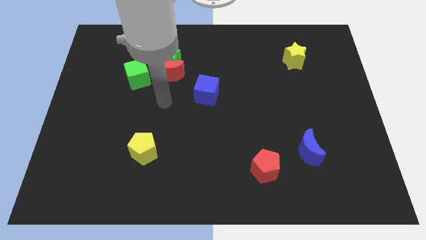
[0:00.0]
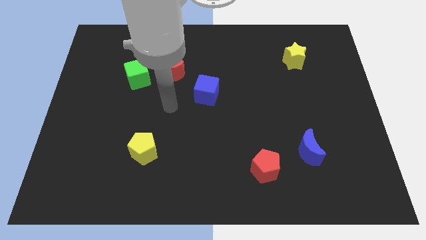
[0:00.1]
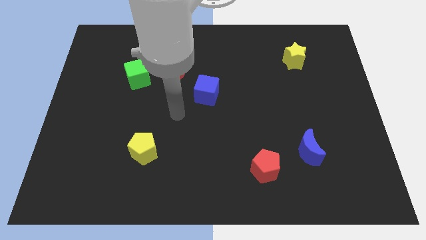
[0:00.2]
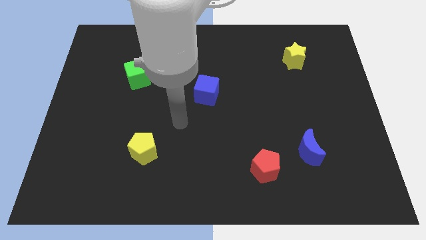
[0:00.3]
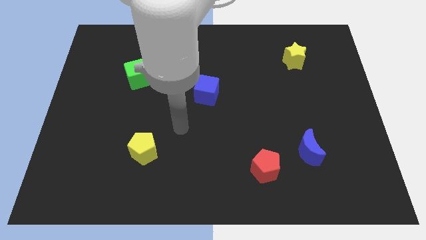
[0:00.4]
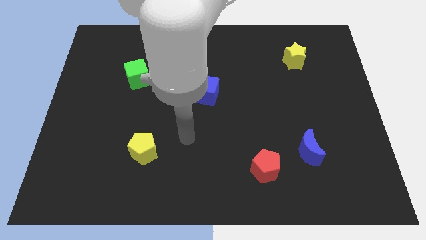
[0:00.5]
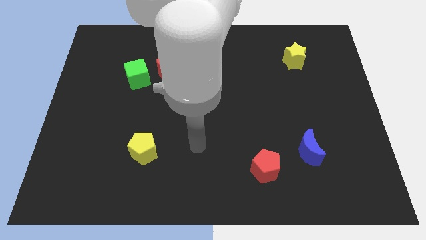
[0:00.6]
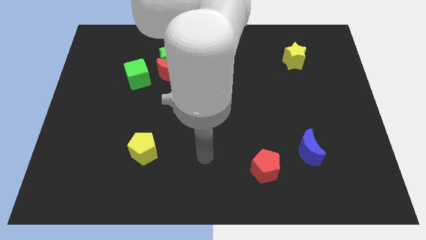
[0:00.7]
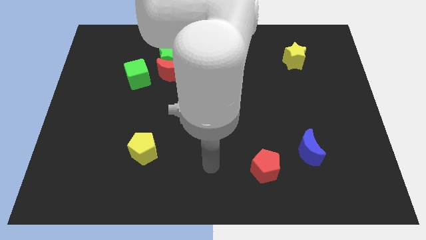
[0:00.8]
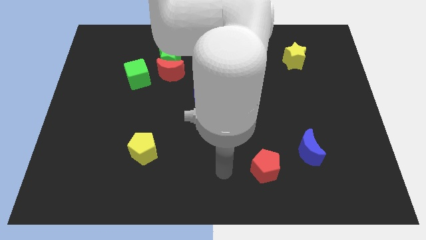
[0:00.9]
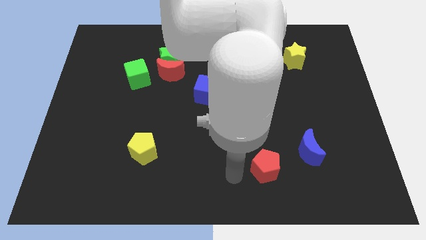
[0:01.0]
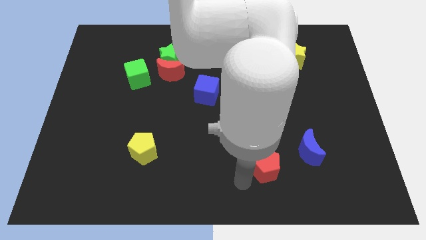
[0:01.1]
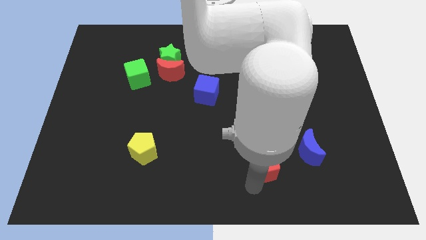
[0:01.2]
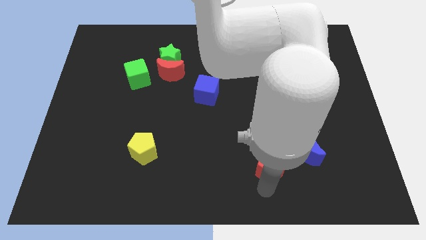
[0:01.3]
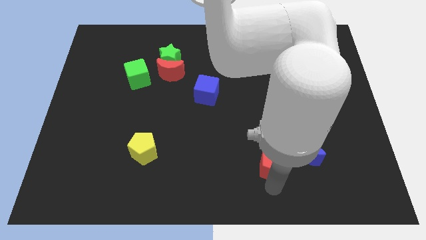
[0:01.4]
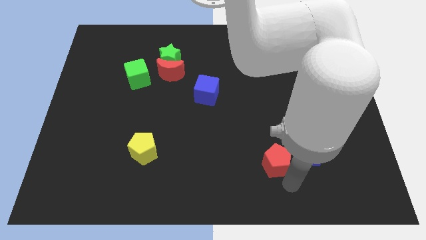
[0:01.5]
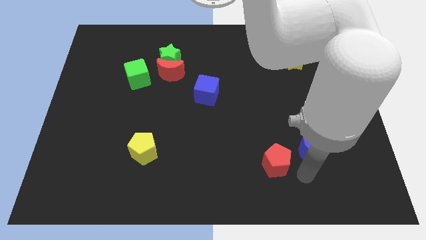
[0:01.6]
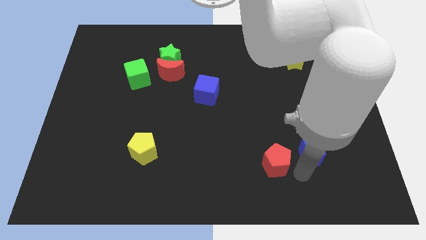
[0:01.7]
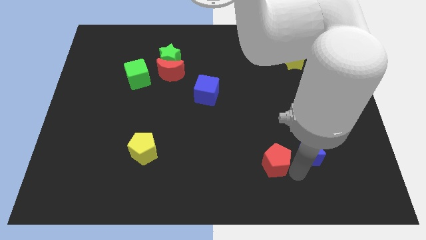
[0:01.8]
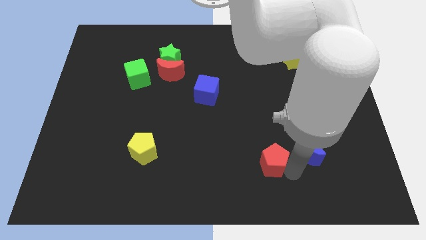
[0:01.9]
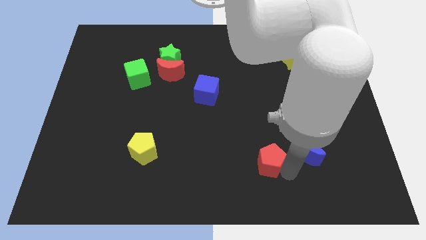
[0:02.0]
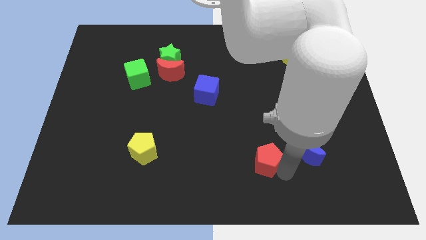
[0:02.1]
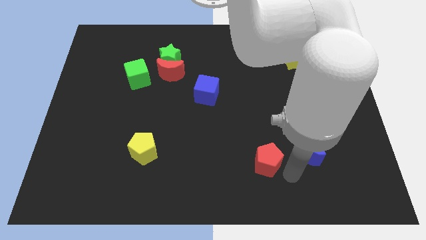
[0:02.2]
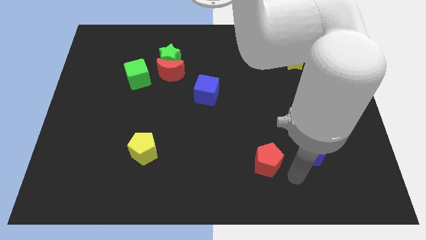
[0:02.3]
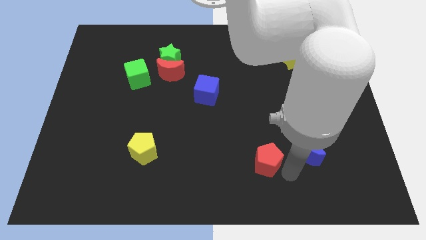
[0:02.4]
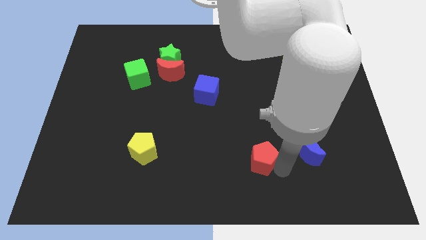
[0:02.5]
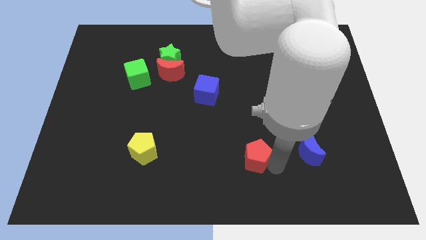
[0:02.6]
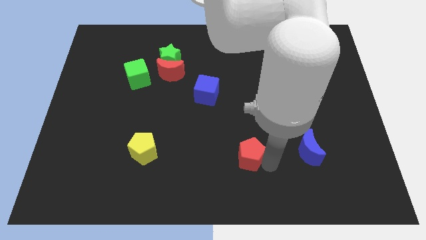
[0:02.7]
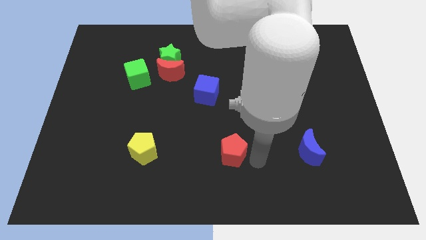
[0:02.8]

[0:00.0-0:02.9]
move the red pentagon a little bit upwards and left

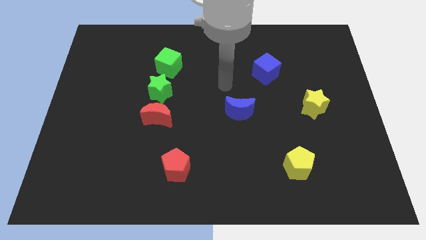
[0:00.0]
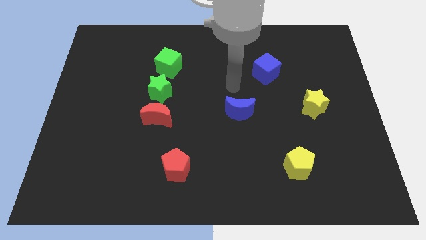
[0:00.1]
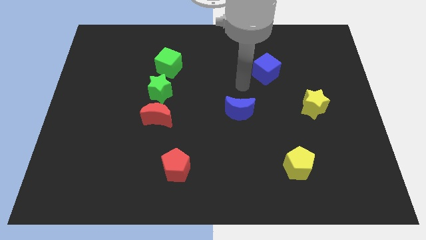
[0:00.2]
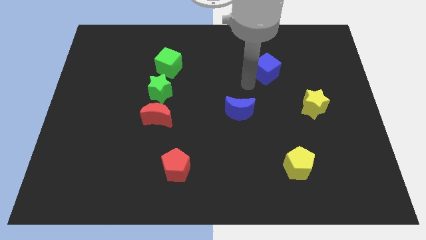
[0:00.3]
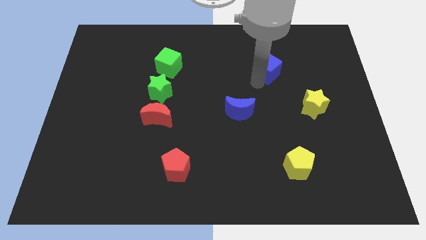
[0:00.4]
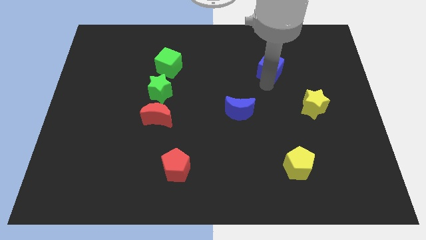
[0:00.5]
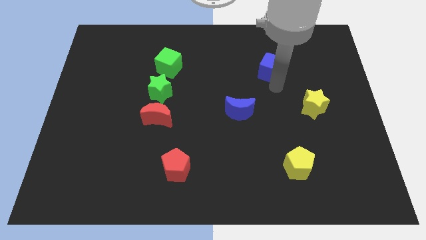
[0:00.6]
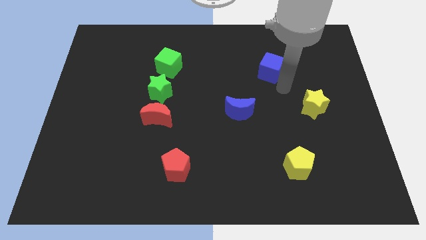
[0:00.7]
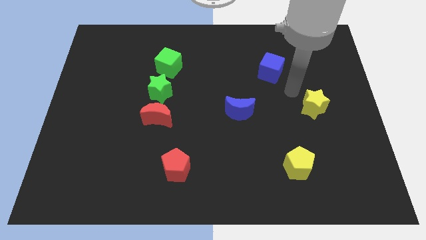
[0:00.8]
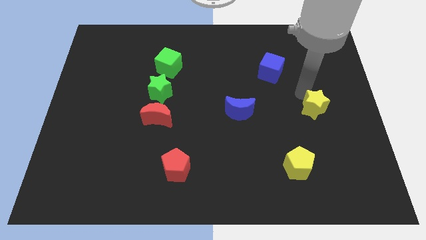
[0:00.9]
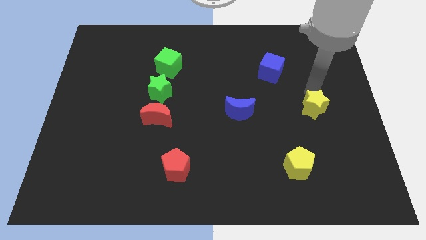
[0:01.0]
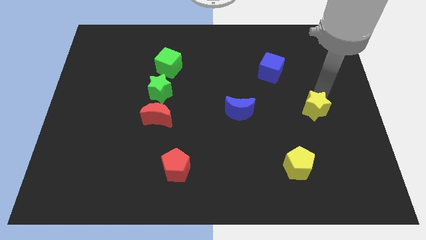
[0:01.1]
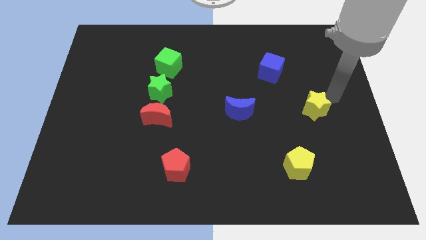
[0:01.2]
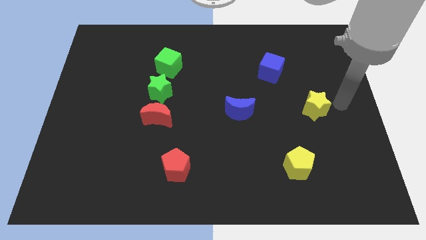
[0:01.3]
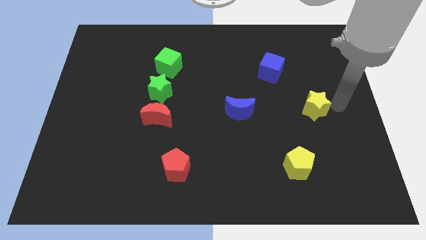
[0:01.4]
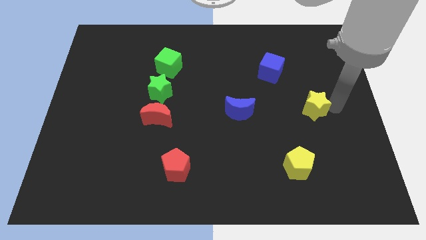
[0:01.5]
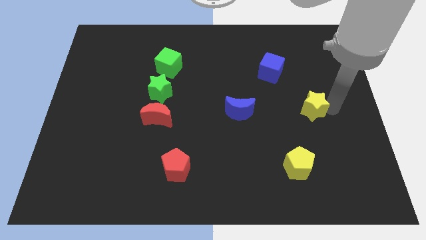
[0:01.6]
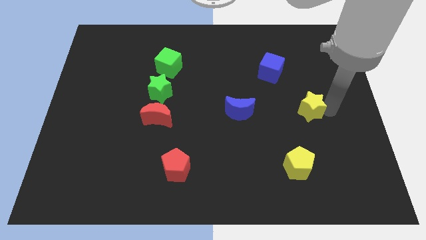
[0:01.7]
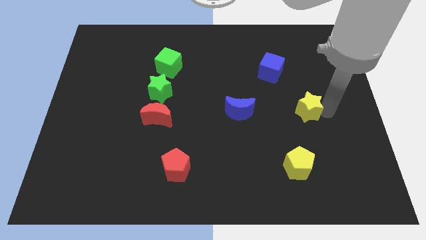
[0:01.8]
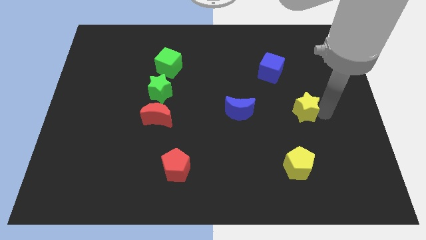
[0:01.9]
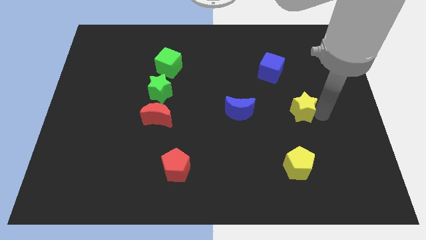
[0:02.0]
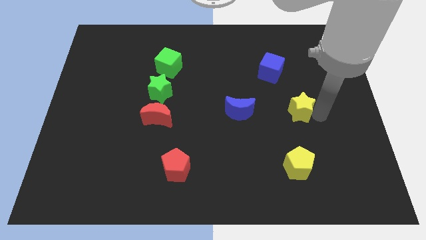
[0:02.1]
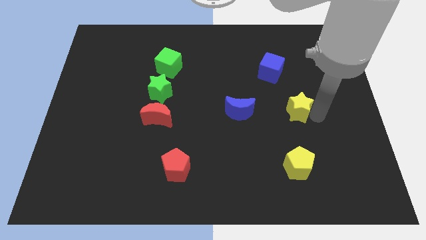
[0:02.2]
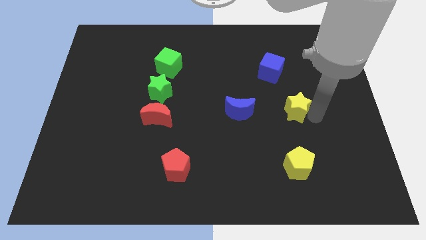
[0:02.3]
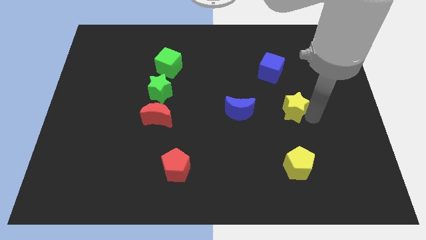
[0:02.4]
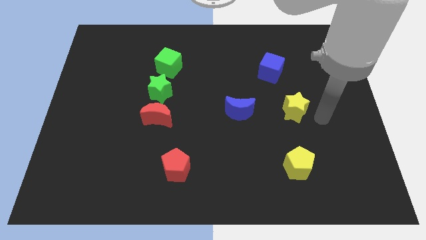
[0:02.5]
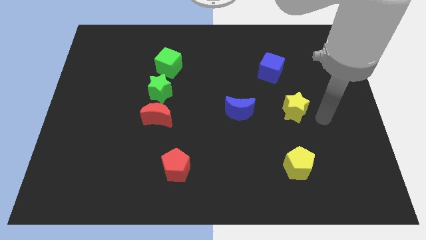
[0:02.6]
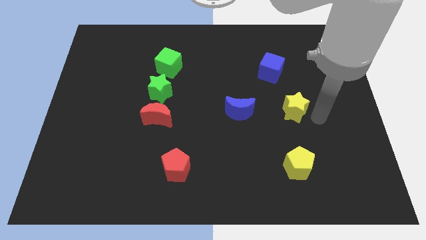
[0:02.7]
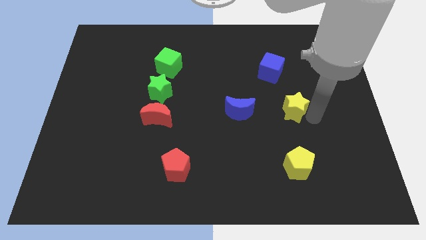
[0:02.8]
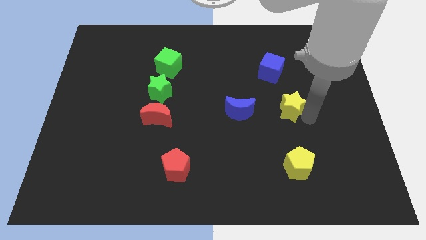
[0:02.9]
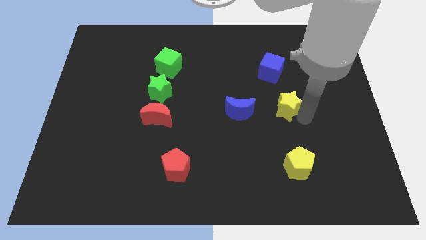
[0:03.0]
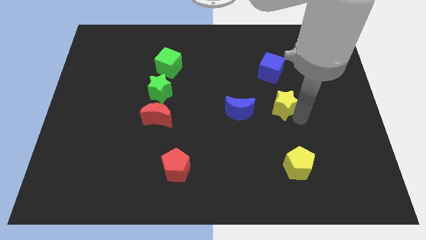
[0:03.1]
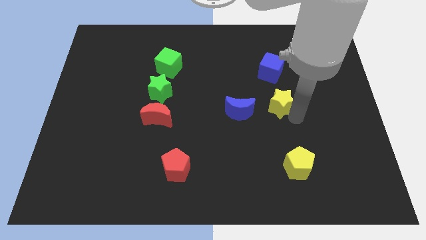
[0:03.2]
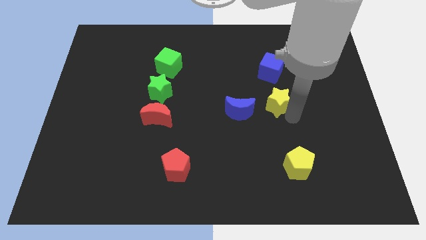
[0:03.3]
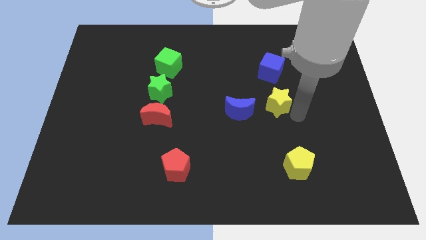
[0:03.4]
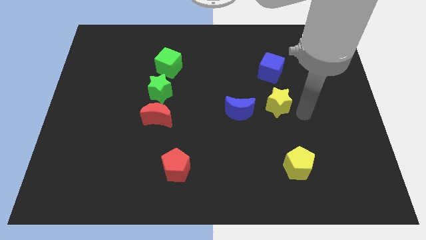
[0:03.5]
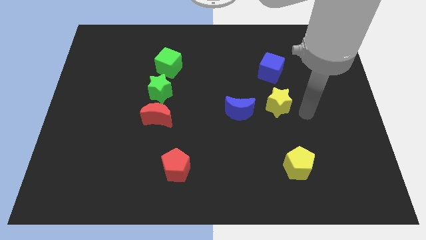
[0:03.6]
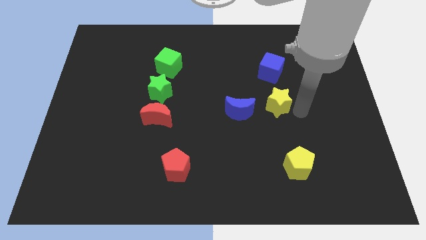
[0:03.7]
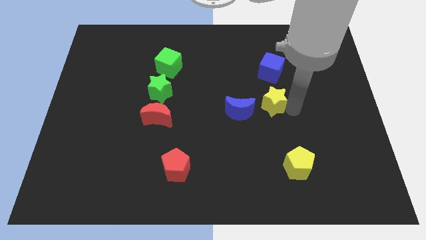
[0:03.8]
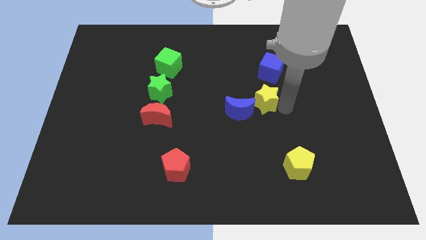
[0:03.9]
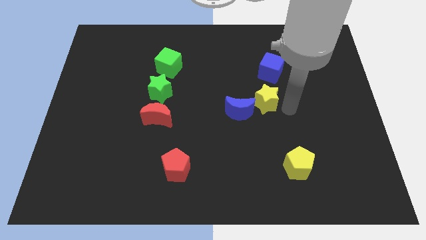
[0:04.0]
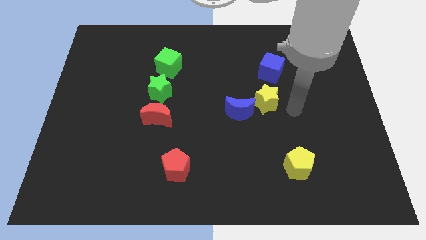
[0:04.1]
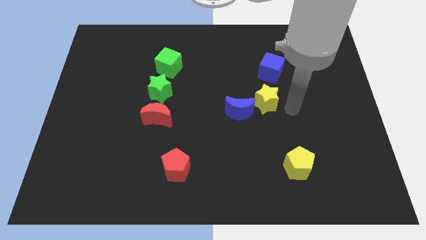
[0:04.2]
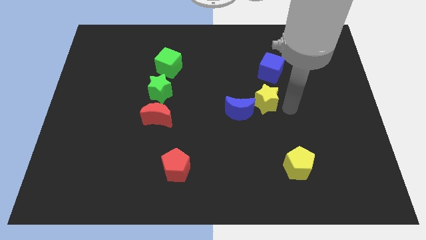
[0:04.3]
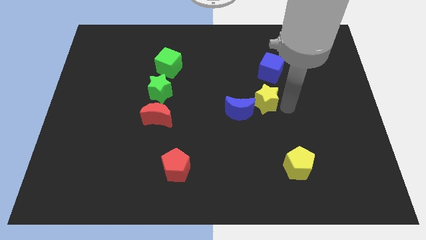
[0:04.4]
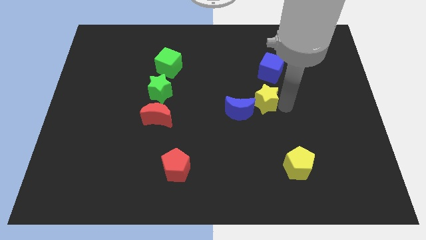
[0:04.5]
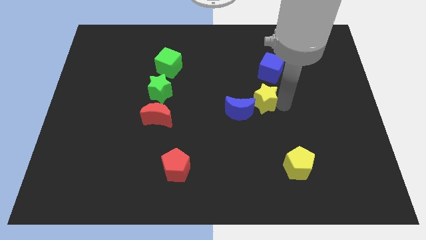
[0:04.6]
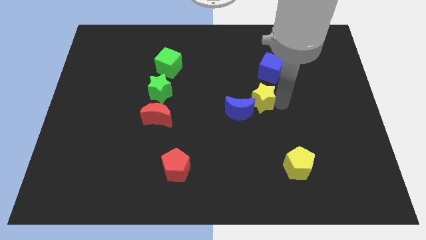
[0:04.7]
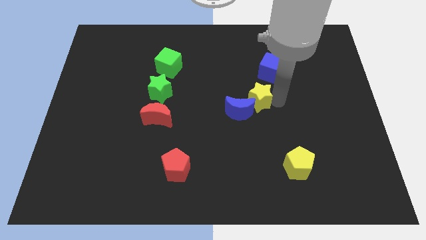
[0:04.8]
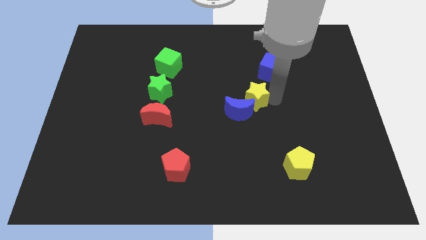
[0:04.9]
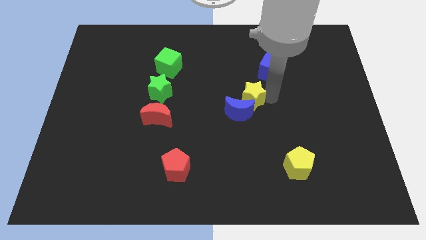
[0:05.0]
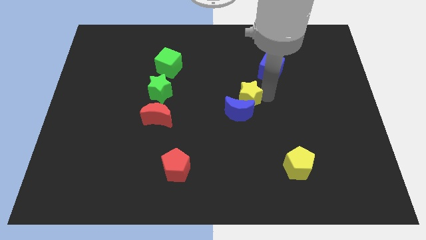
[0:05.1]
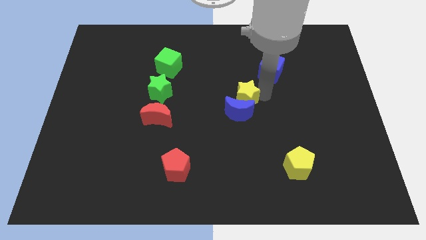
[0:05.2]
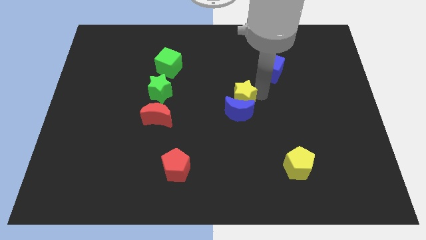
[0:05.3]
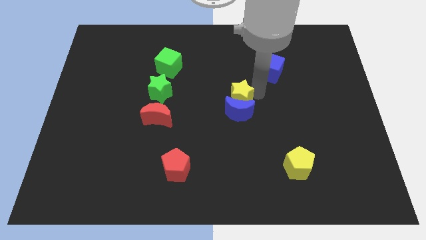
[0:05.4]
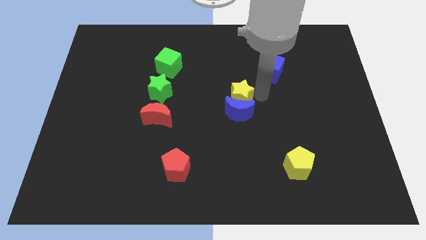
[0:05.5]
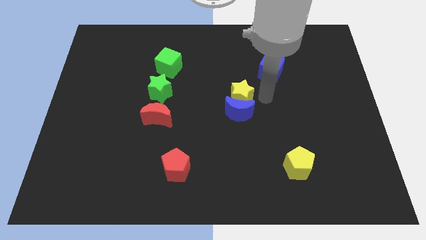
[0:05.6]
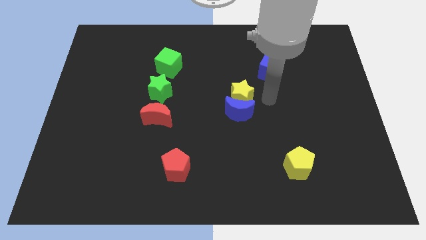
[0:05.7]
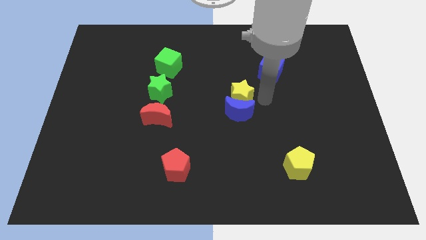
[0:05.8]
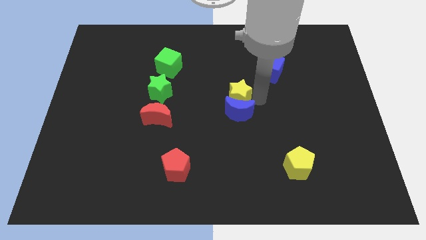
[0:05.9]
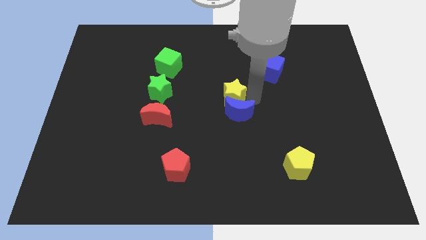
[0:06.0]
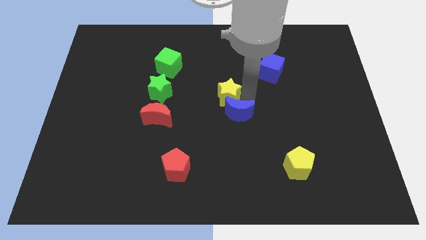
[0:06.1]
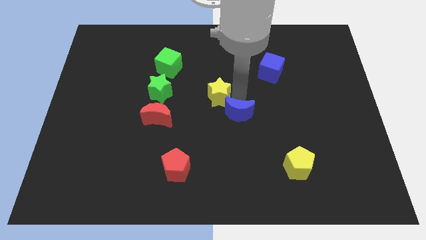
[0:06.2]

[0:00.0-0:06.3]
slide the yellow star left
